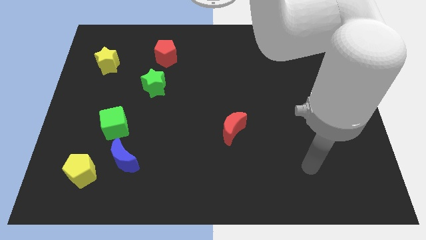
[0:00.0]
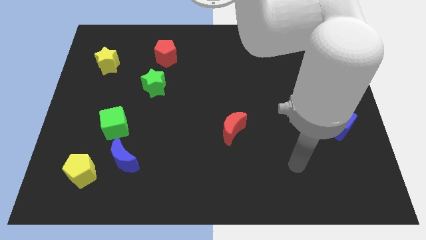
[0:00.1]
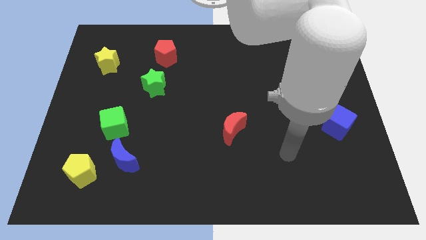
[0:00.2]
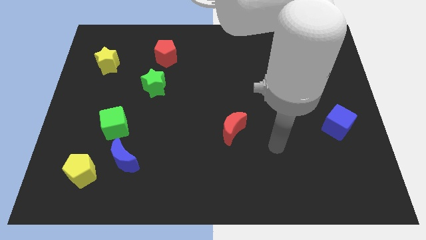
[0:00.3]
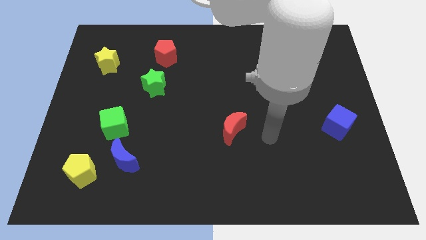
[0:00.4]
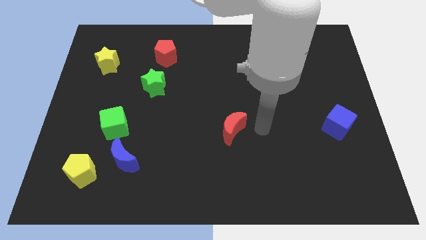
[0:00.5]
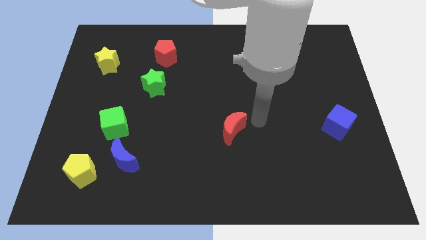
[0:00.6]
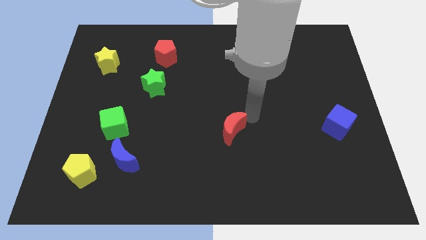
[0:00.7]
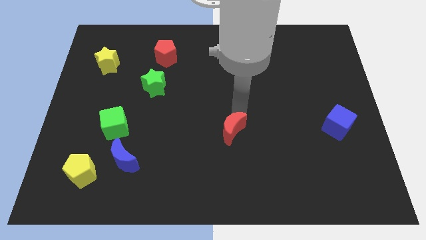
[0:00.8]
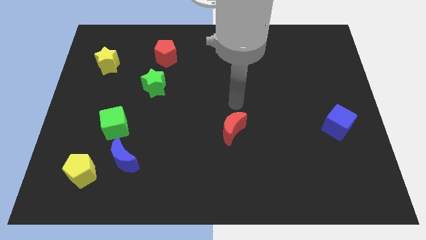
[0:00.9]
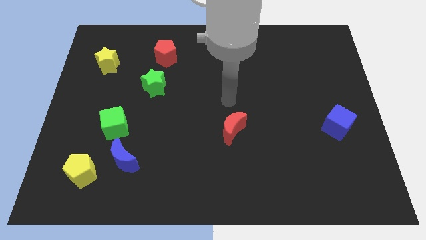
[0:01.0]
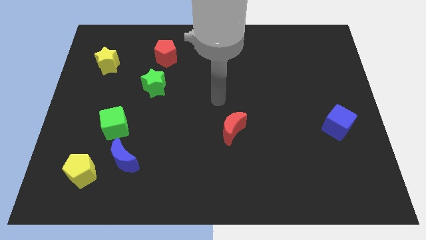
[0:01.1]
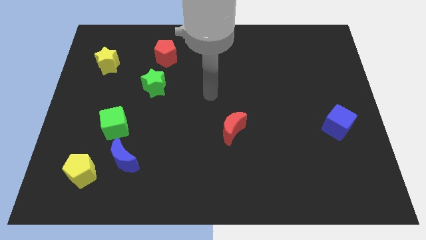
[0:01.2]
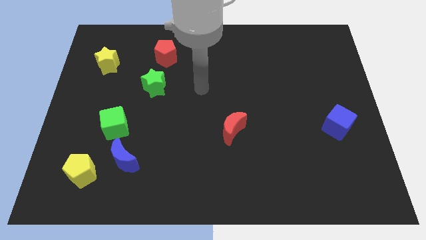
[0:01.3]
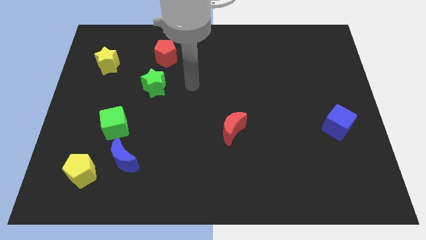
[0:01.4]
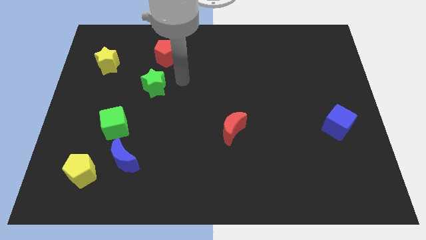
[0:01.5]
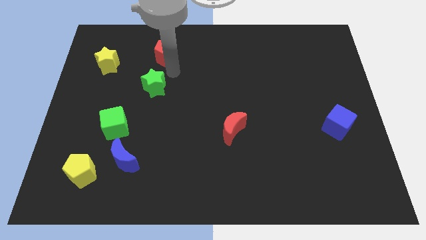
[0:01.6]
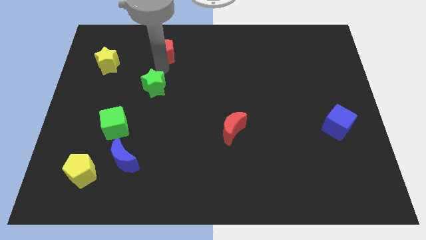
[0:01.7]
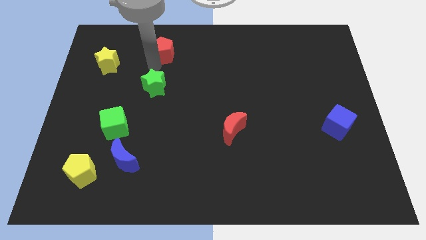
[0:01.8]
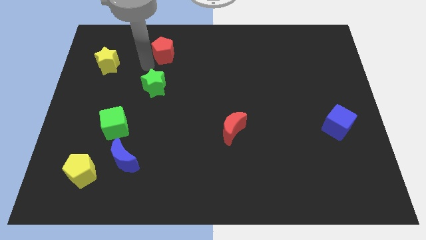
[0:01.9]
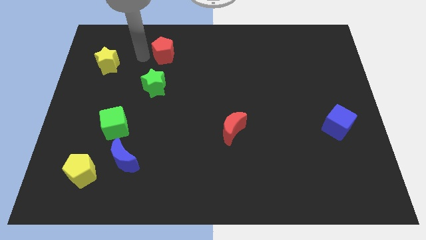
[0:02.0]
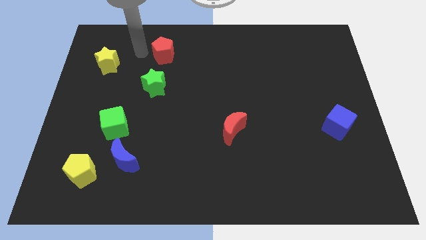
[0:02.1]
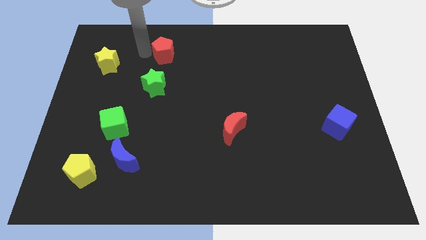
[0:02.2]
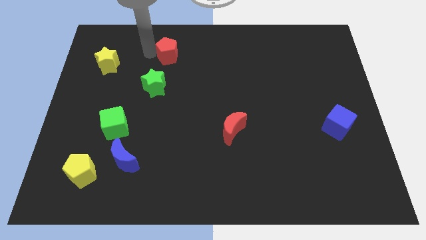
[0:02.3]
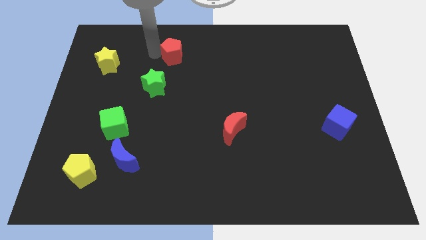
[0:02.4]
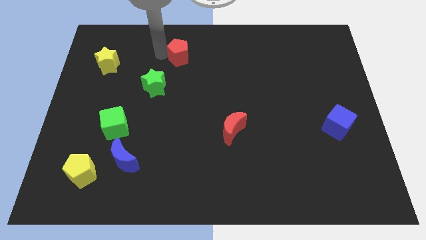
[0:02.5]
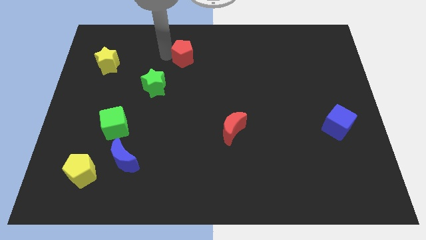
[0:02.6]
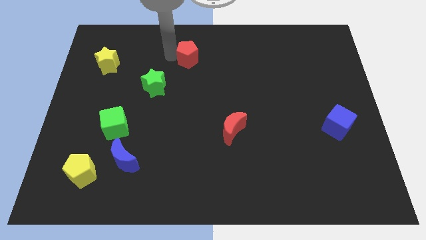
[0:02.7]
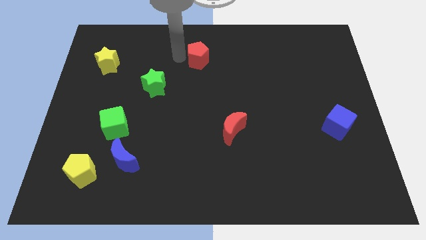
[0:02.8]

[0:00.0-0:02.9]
slide the red pentagon right somewhat

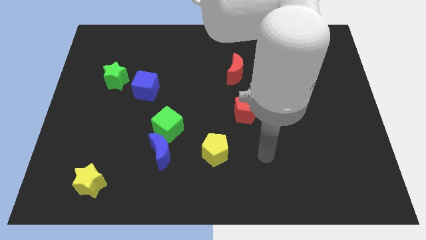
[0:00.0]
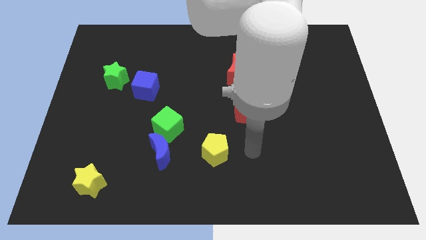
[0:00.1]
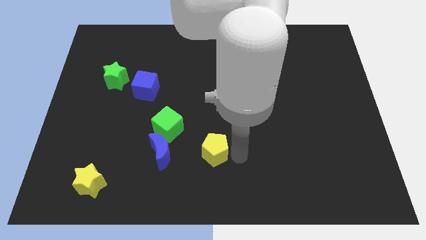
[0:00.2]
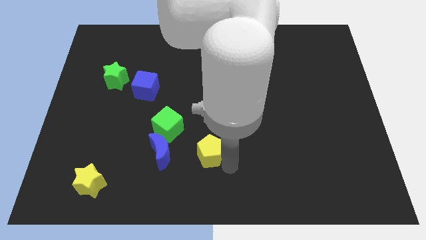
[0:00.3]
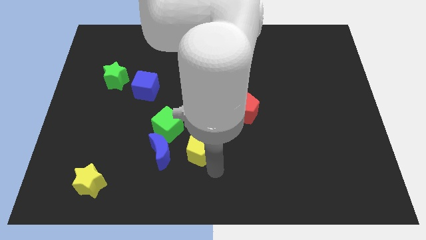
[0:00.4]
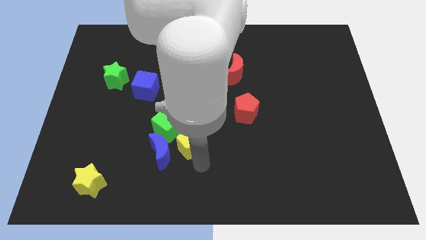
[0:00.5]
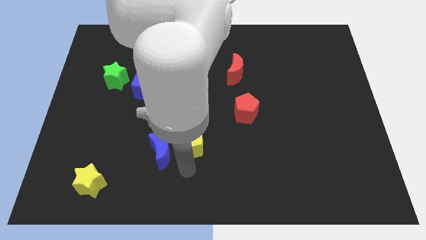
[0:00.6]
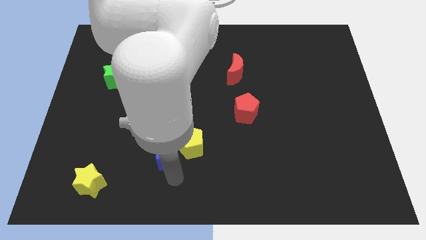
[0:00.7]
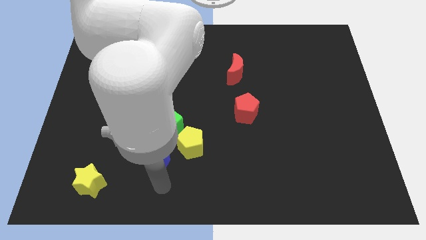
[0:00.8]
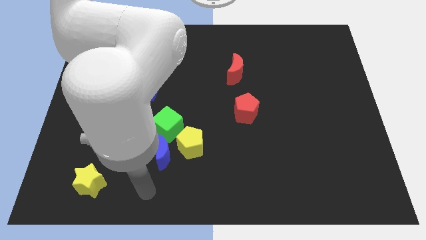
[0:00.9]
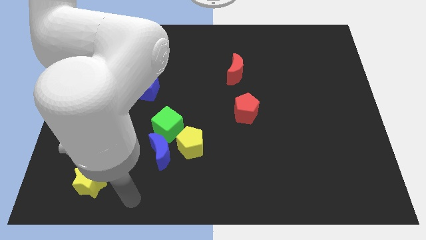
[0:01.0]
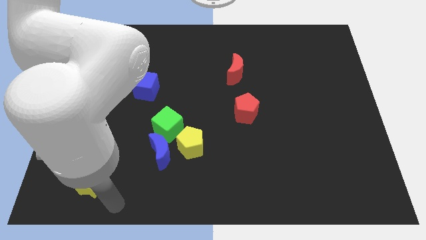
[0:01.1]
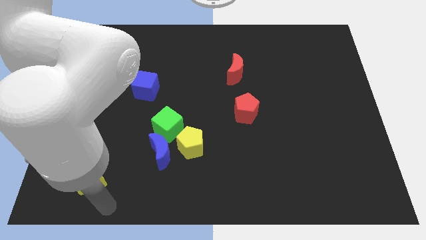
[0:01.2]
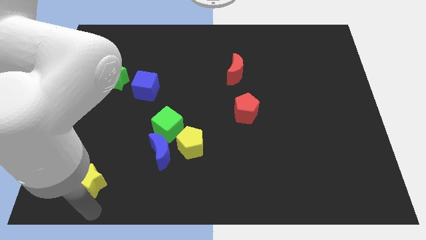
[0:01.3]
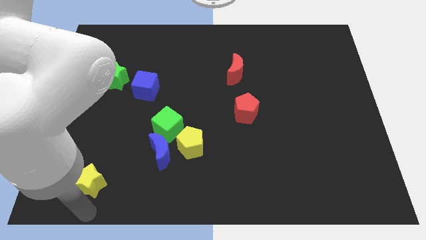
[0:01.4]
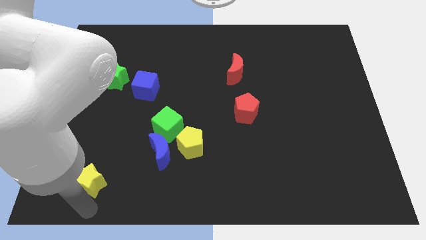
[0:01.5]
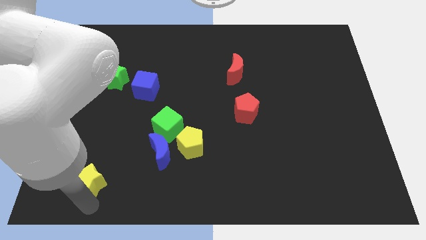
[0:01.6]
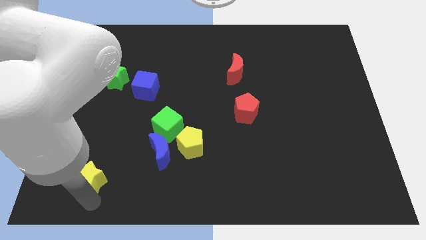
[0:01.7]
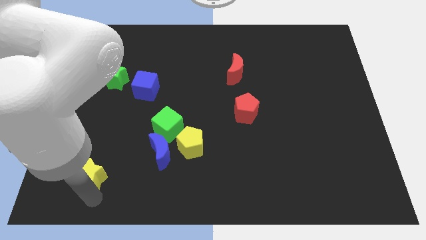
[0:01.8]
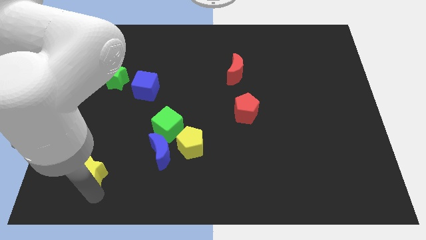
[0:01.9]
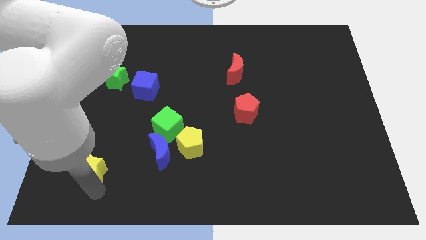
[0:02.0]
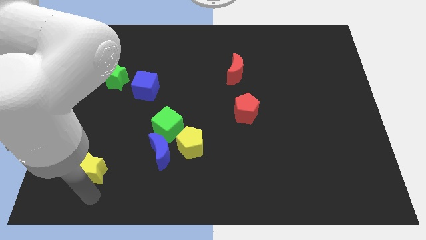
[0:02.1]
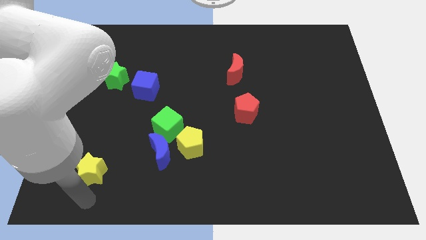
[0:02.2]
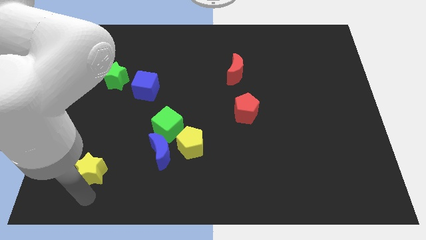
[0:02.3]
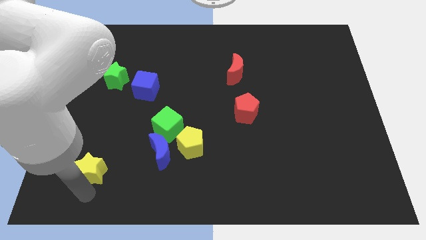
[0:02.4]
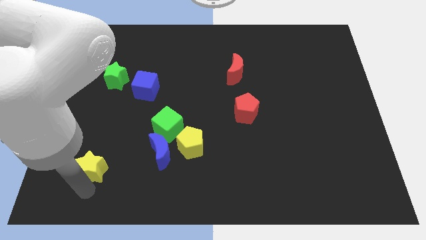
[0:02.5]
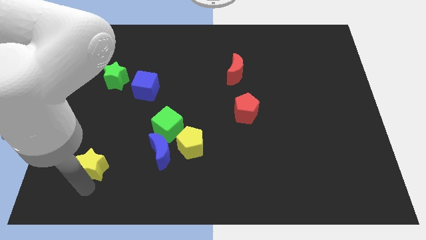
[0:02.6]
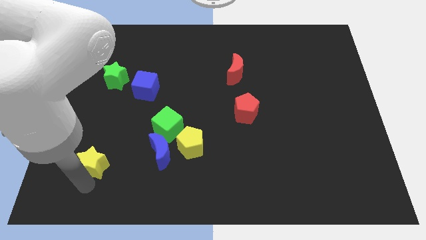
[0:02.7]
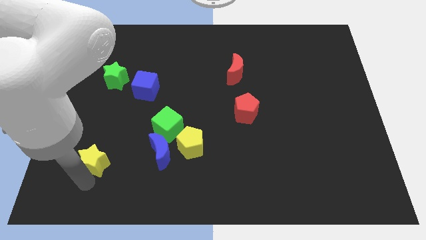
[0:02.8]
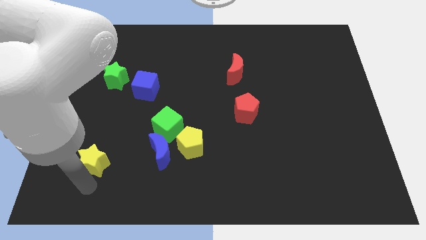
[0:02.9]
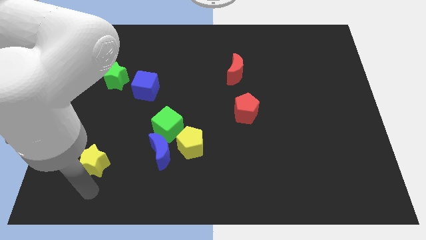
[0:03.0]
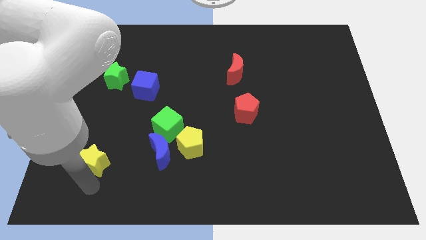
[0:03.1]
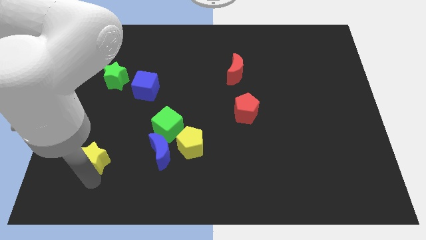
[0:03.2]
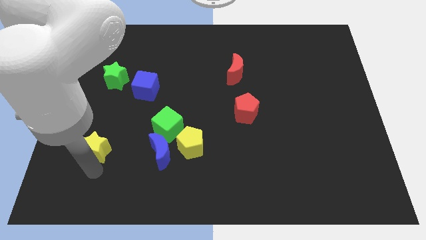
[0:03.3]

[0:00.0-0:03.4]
push the yellow star up somewhat

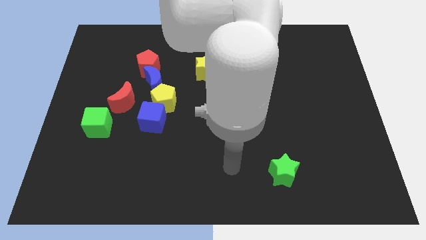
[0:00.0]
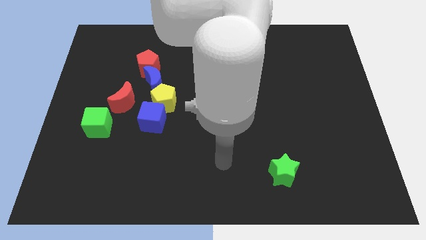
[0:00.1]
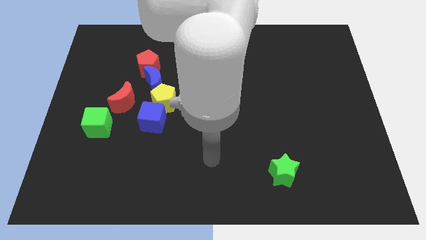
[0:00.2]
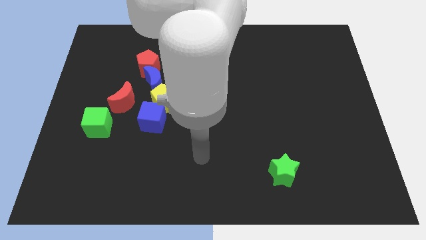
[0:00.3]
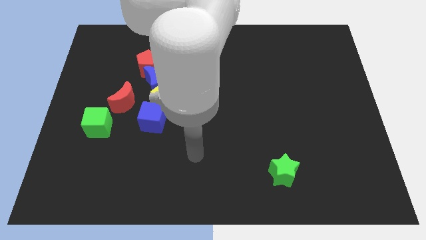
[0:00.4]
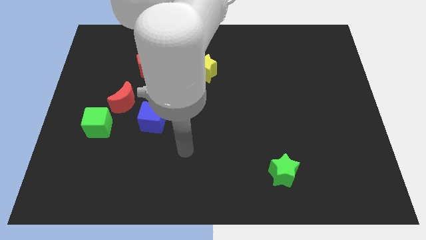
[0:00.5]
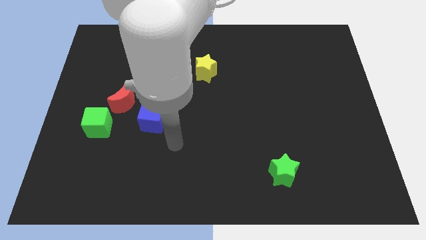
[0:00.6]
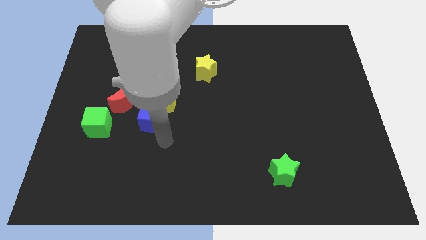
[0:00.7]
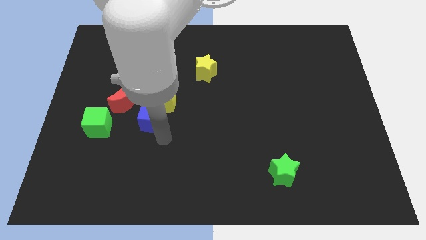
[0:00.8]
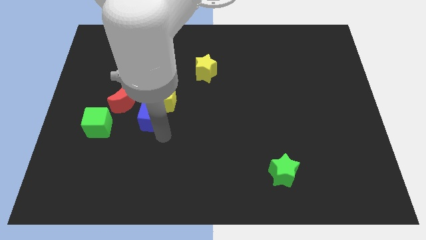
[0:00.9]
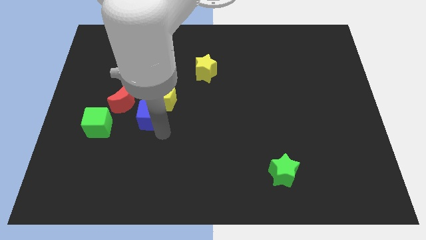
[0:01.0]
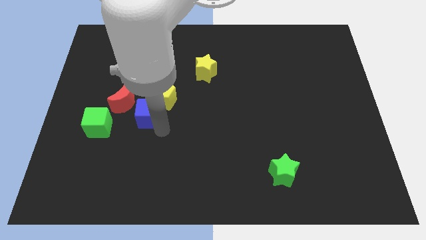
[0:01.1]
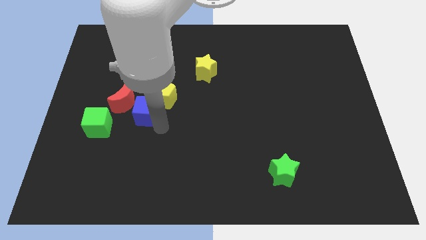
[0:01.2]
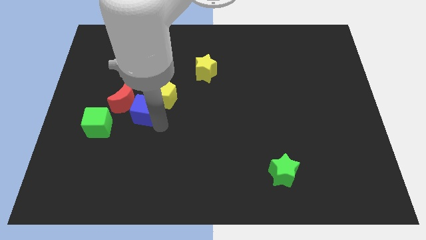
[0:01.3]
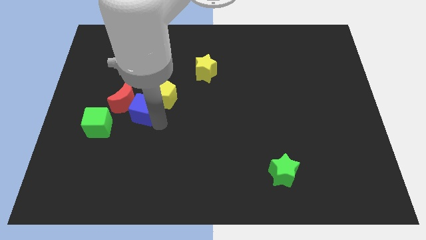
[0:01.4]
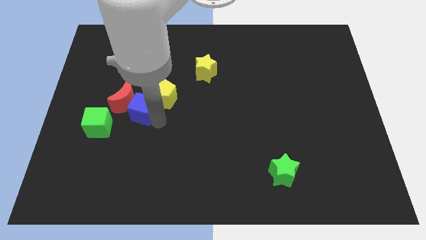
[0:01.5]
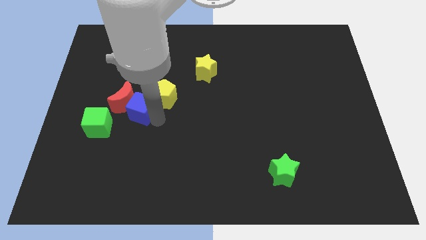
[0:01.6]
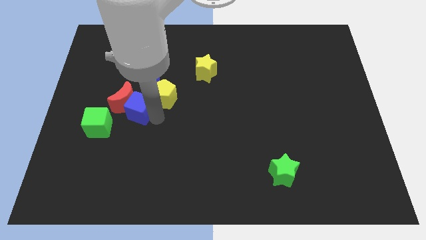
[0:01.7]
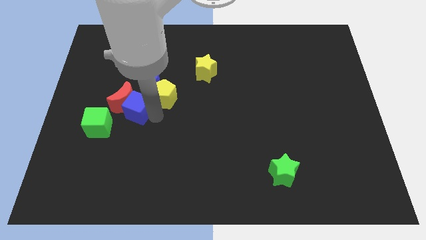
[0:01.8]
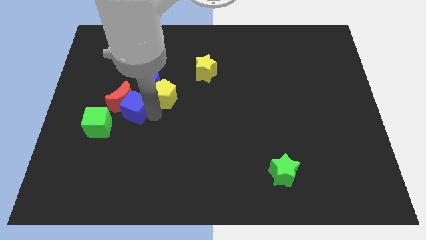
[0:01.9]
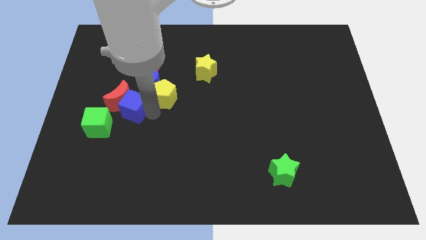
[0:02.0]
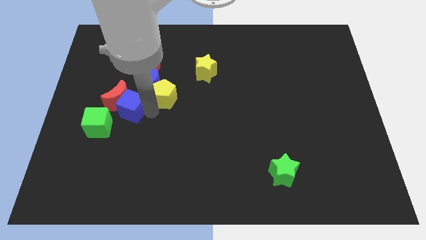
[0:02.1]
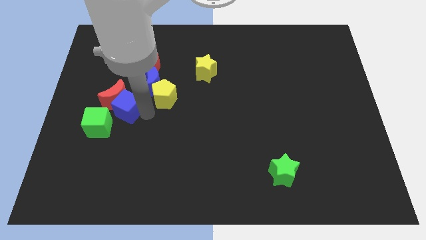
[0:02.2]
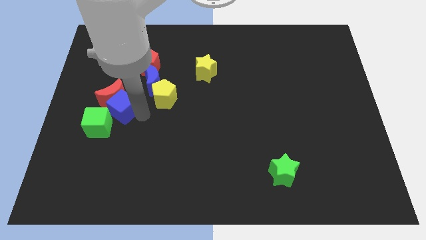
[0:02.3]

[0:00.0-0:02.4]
slightly move the blue cube up and to the left diagonally
